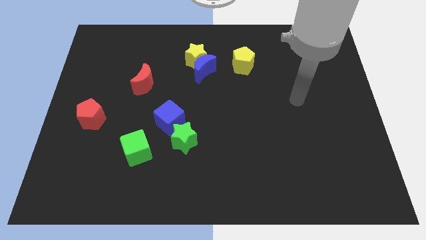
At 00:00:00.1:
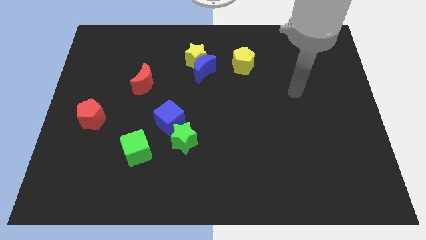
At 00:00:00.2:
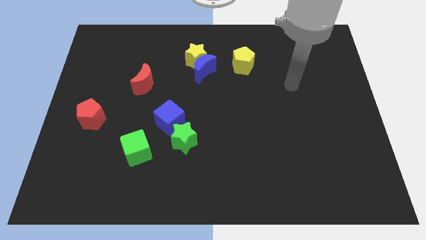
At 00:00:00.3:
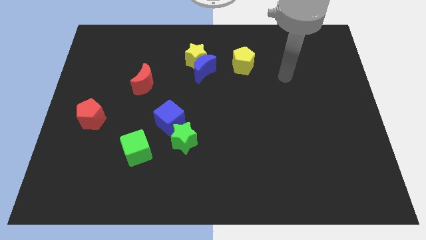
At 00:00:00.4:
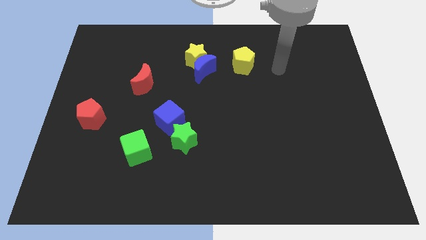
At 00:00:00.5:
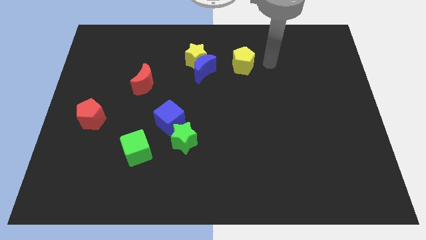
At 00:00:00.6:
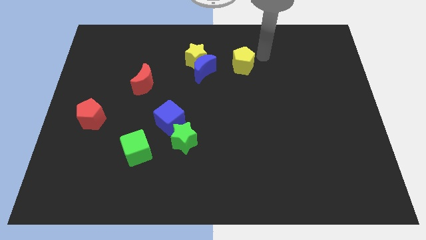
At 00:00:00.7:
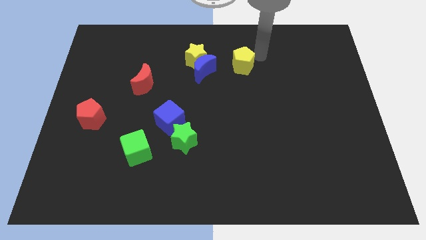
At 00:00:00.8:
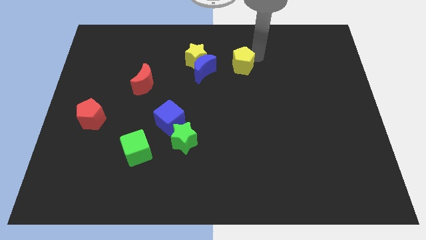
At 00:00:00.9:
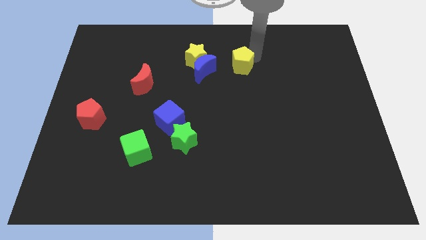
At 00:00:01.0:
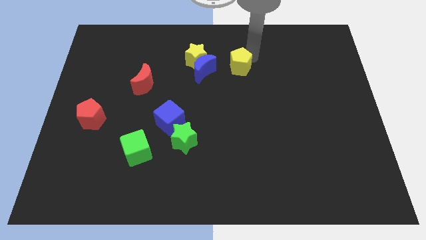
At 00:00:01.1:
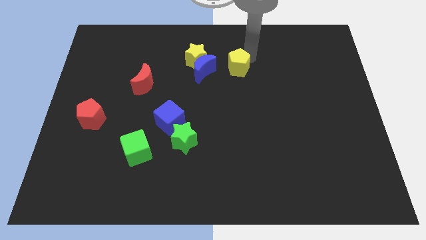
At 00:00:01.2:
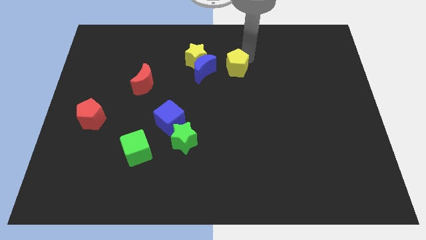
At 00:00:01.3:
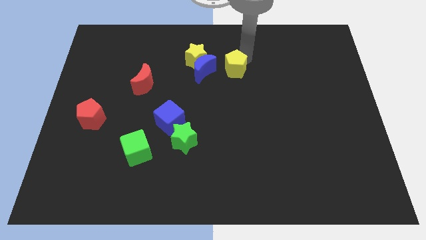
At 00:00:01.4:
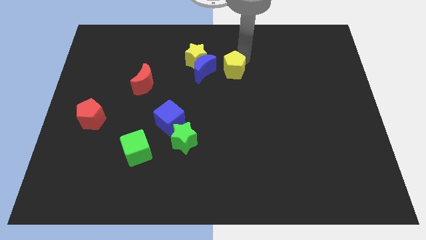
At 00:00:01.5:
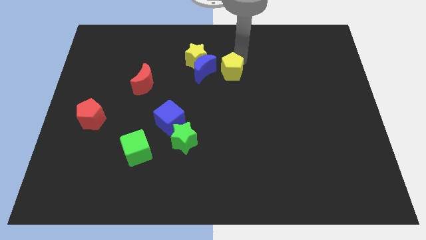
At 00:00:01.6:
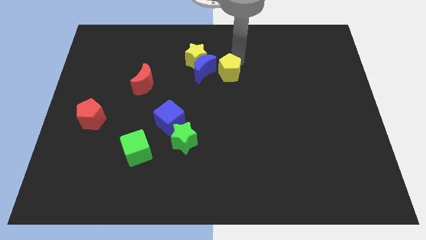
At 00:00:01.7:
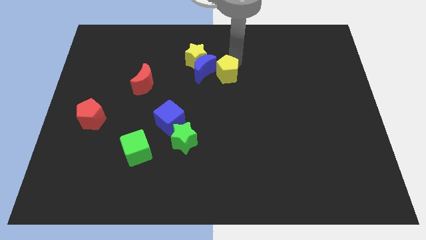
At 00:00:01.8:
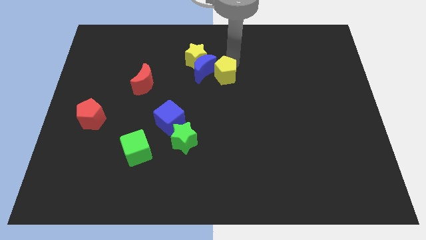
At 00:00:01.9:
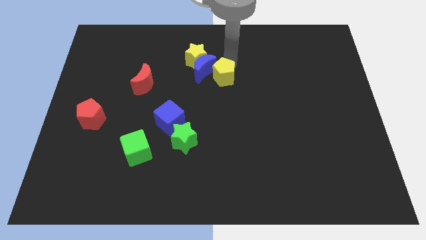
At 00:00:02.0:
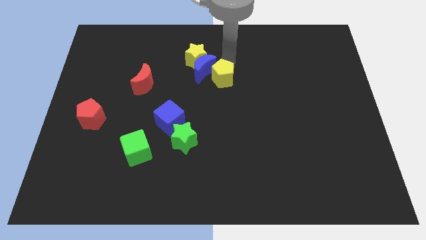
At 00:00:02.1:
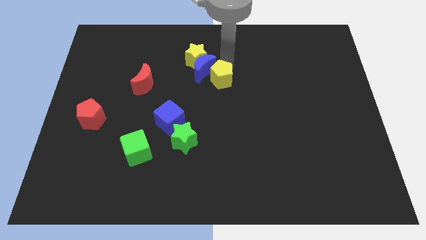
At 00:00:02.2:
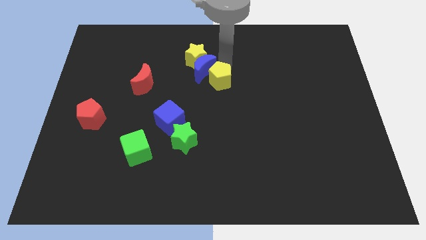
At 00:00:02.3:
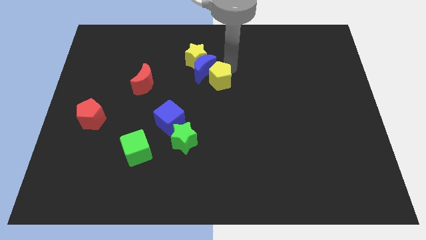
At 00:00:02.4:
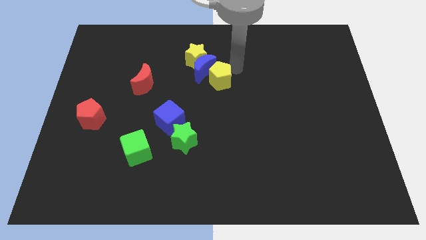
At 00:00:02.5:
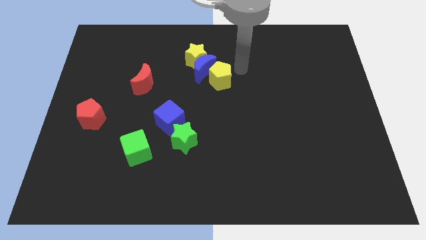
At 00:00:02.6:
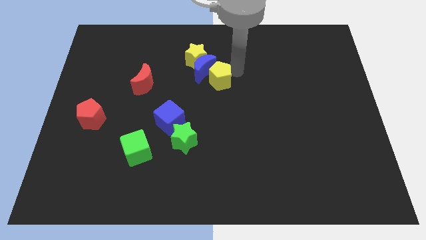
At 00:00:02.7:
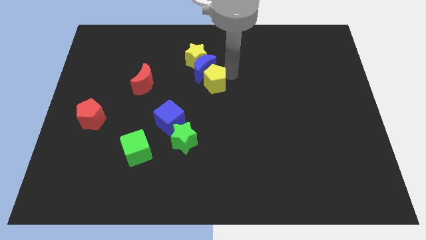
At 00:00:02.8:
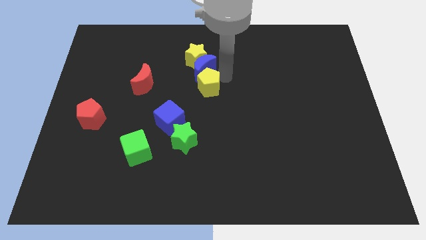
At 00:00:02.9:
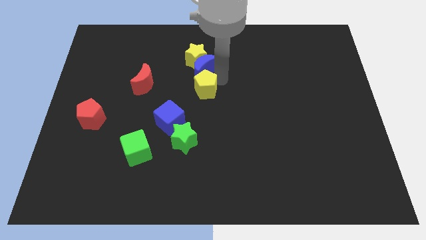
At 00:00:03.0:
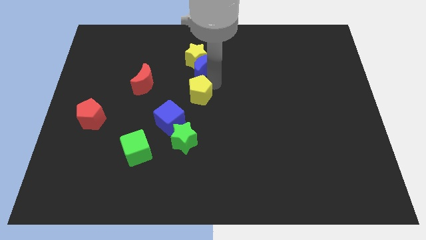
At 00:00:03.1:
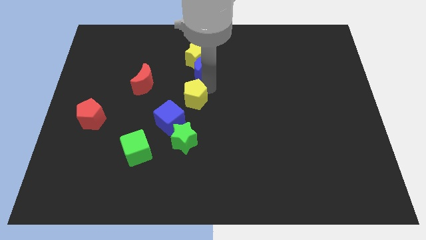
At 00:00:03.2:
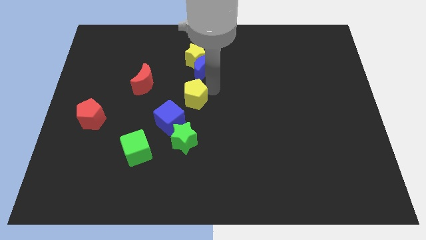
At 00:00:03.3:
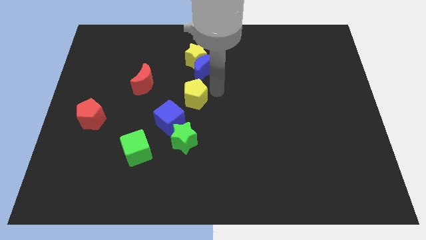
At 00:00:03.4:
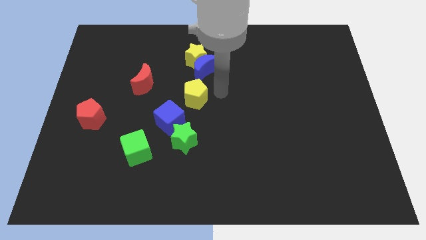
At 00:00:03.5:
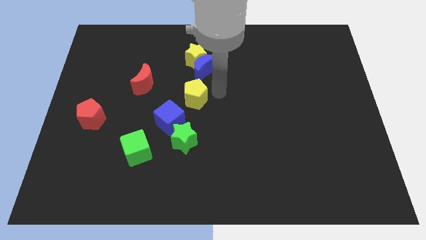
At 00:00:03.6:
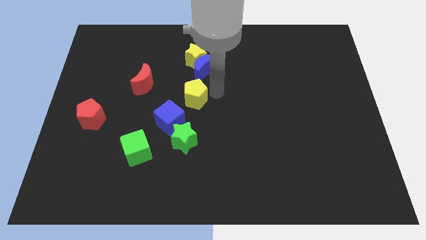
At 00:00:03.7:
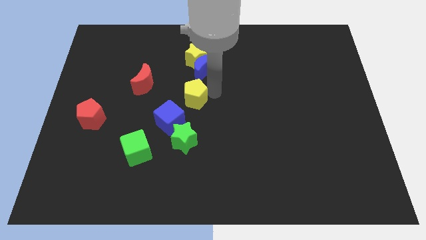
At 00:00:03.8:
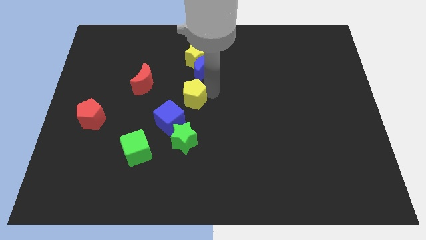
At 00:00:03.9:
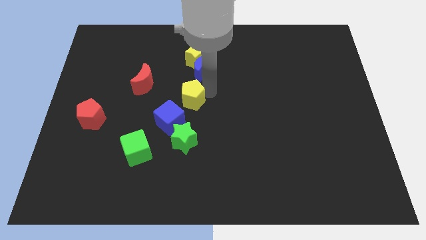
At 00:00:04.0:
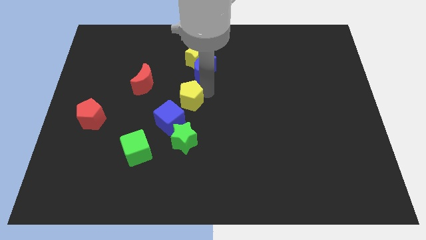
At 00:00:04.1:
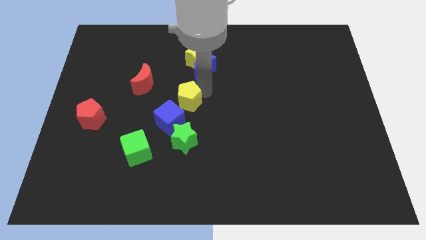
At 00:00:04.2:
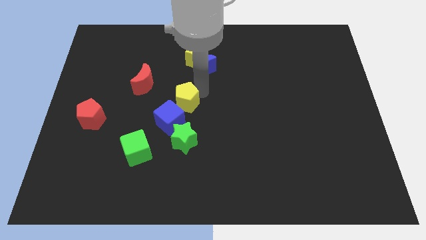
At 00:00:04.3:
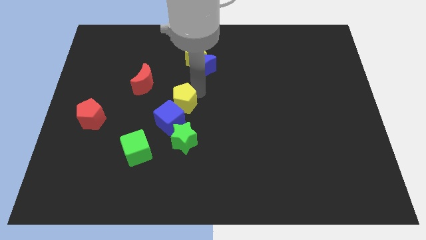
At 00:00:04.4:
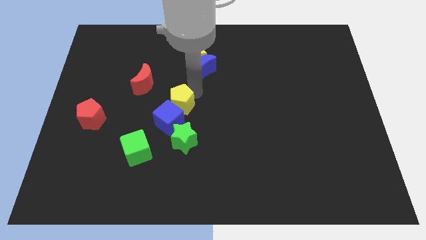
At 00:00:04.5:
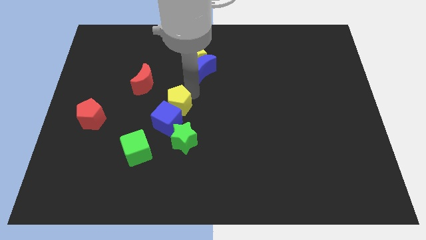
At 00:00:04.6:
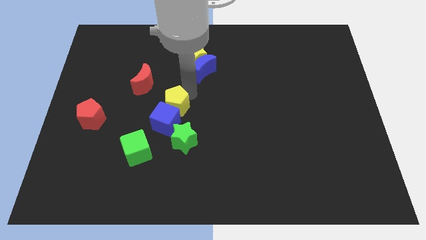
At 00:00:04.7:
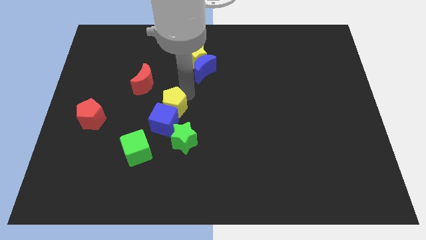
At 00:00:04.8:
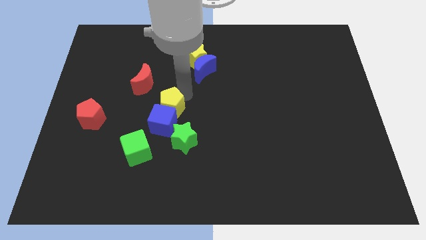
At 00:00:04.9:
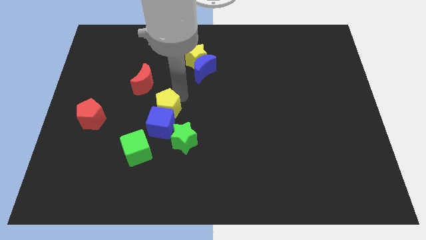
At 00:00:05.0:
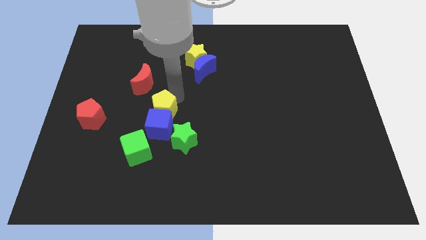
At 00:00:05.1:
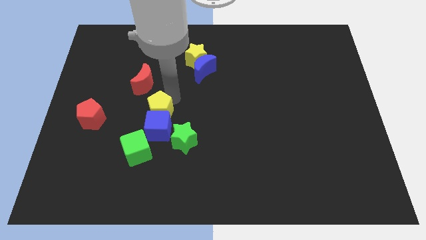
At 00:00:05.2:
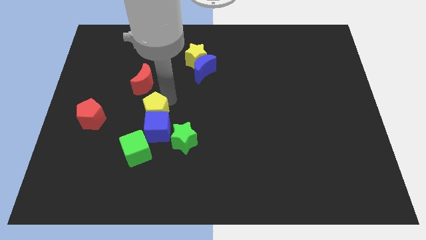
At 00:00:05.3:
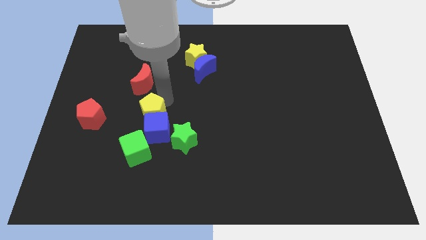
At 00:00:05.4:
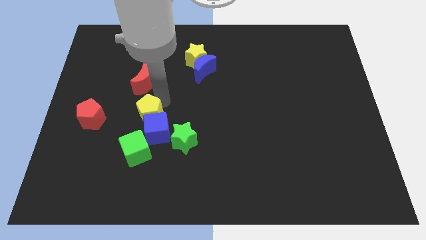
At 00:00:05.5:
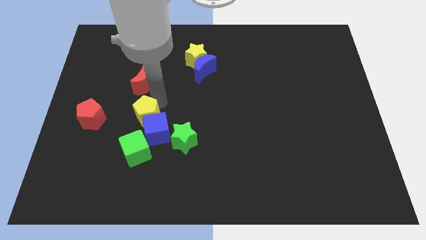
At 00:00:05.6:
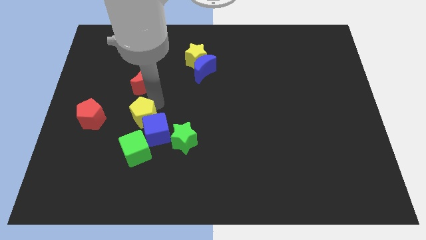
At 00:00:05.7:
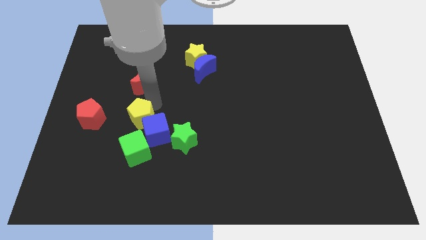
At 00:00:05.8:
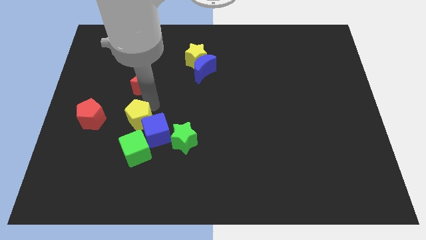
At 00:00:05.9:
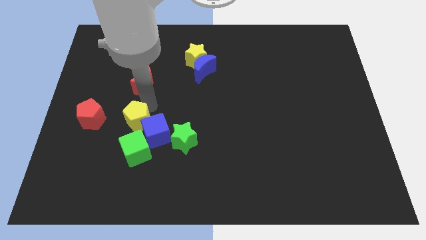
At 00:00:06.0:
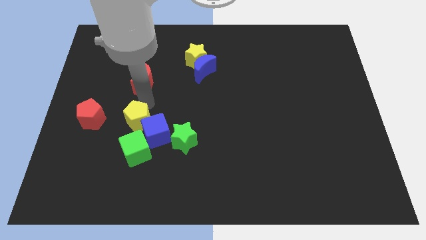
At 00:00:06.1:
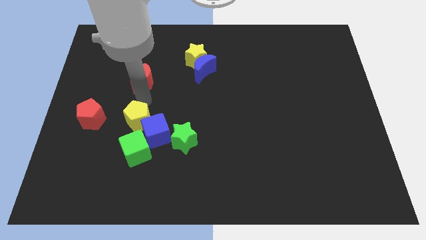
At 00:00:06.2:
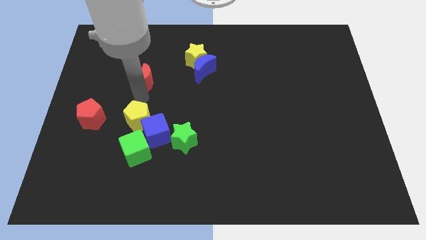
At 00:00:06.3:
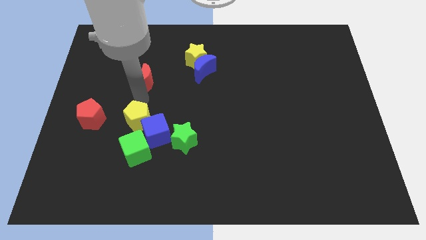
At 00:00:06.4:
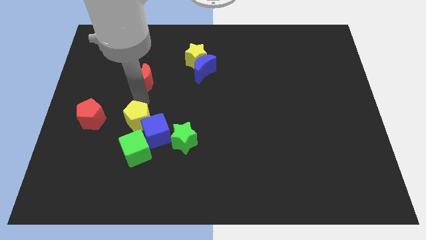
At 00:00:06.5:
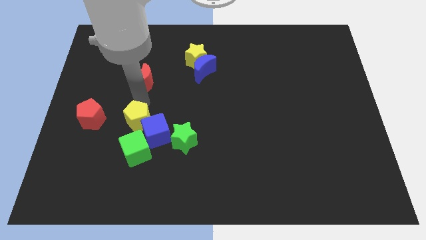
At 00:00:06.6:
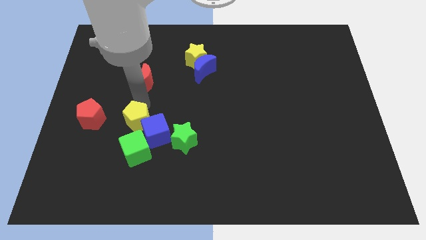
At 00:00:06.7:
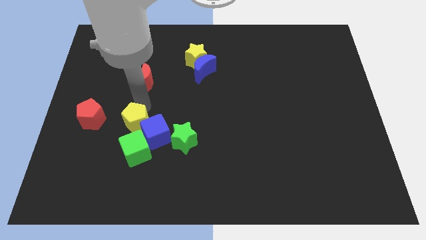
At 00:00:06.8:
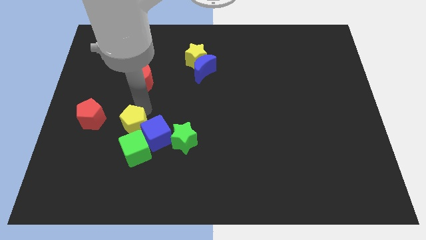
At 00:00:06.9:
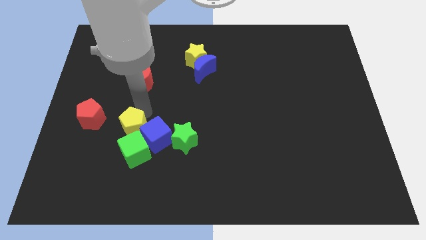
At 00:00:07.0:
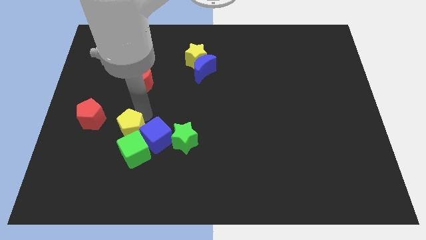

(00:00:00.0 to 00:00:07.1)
put the yellow pentagon close to the green cube
